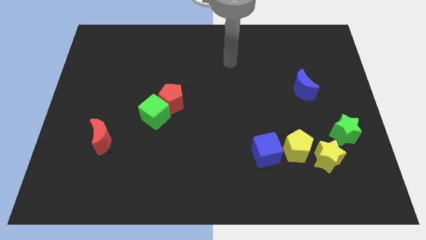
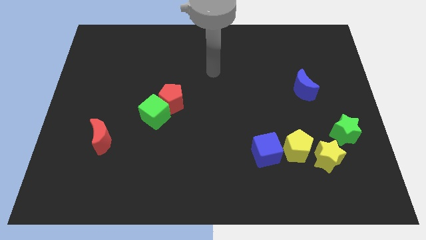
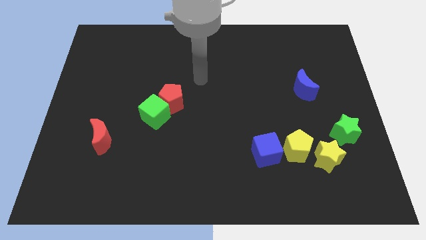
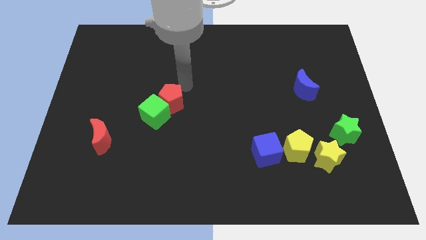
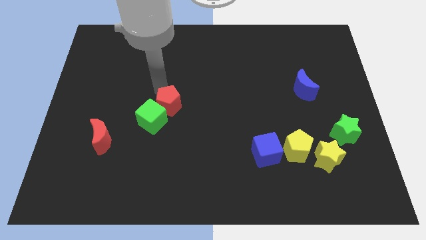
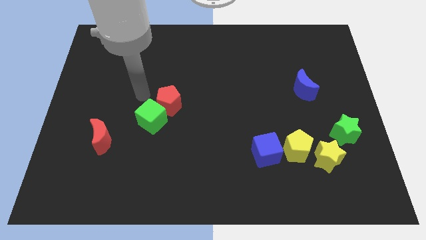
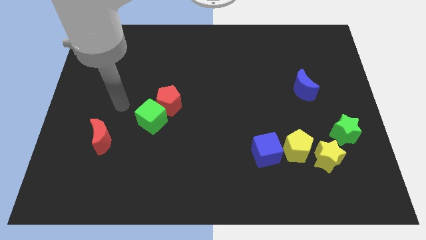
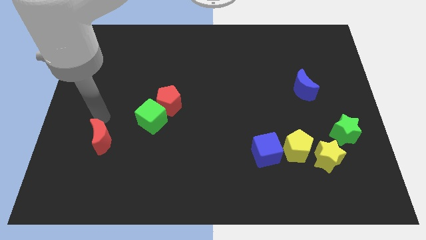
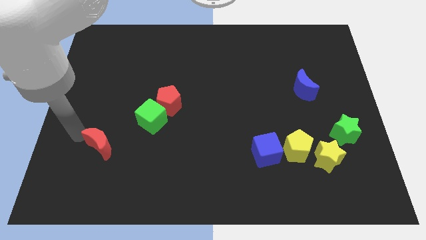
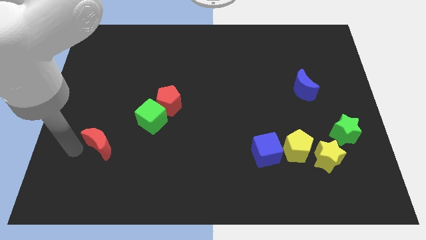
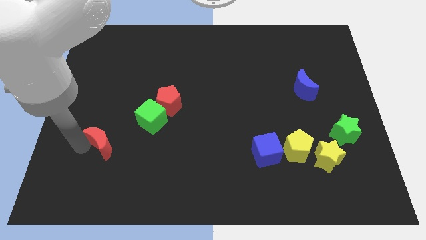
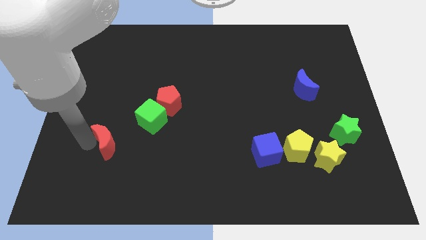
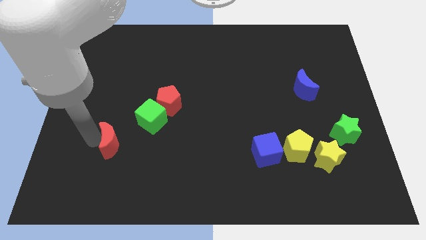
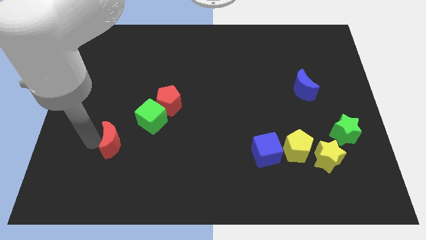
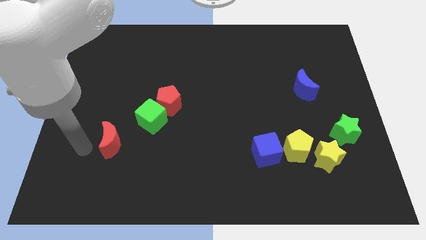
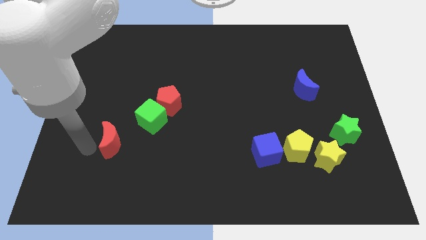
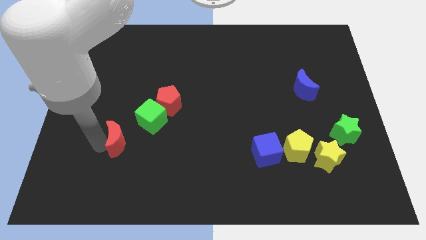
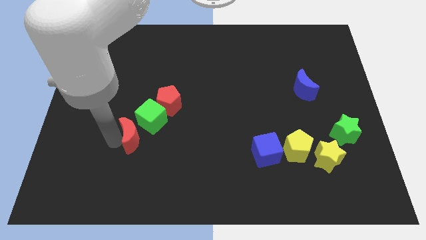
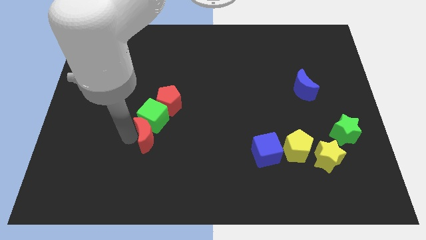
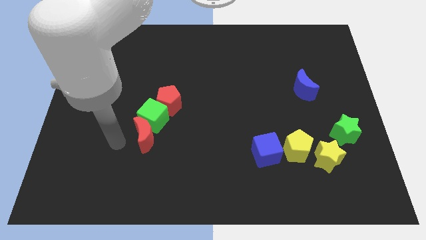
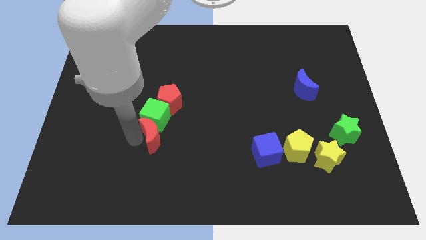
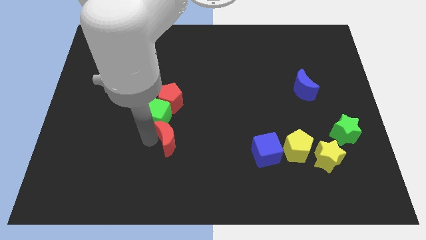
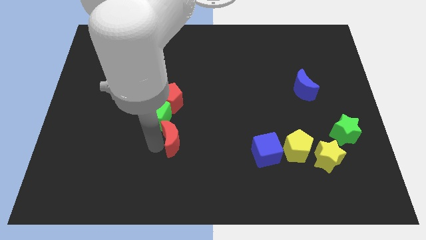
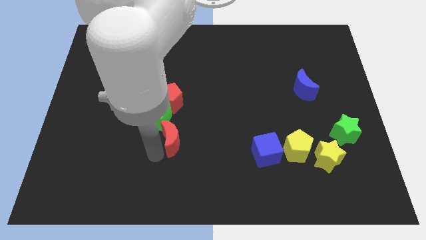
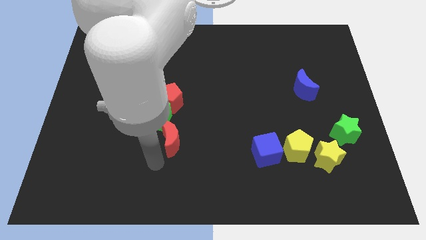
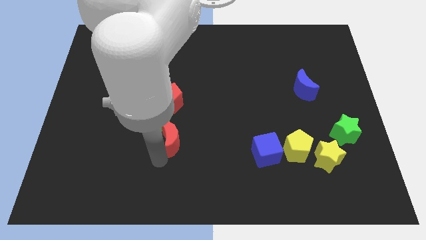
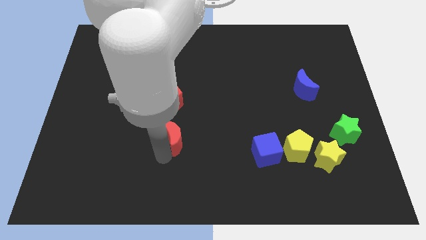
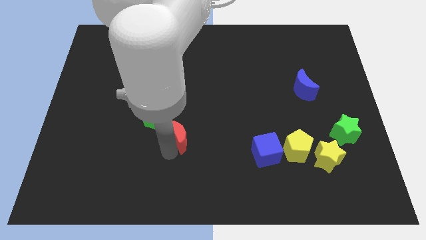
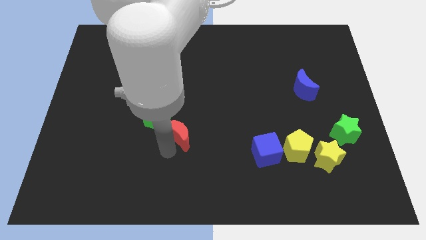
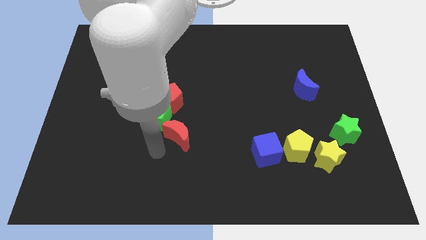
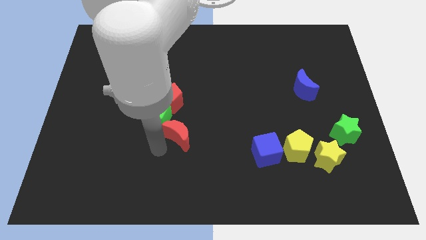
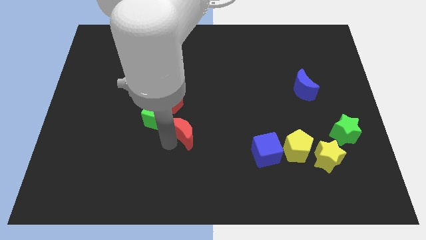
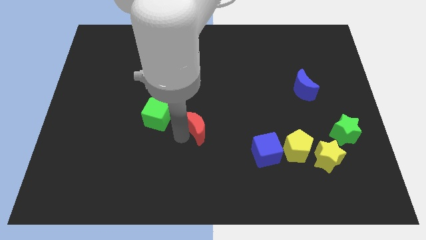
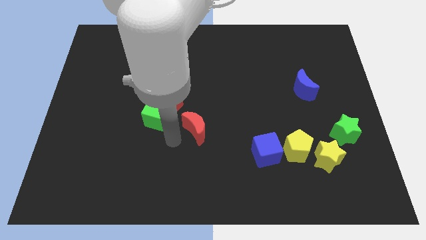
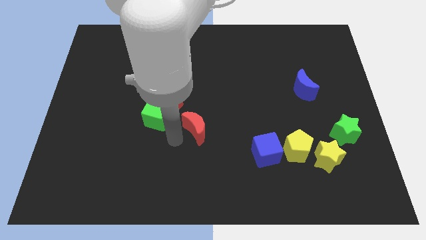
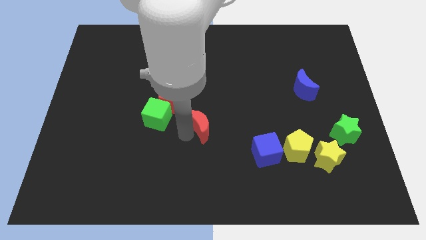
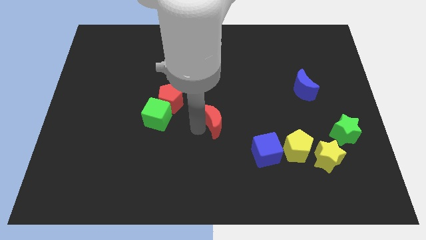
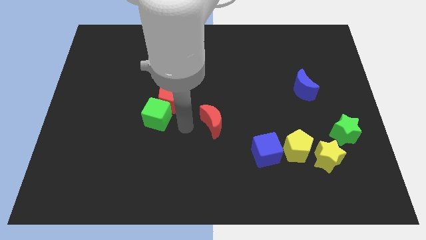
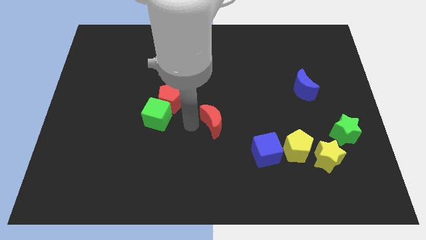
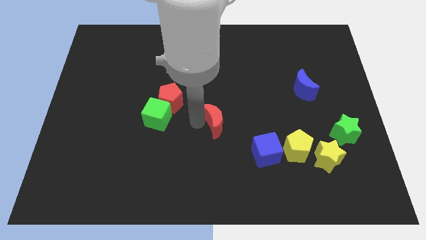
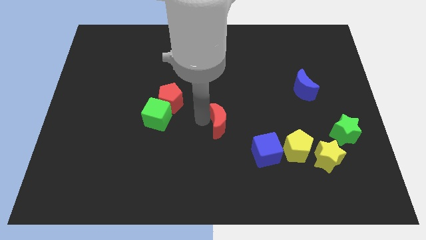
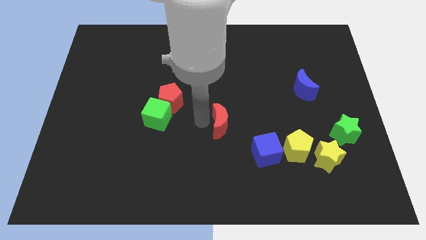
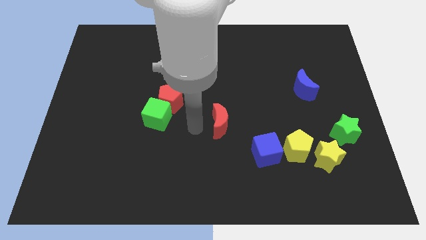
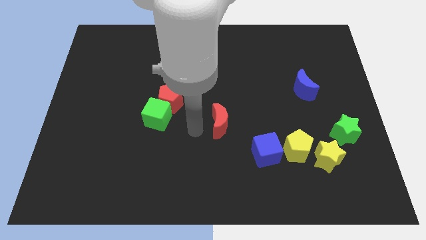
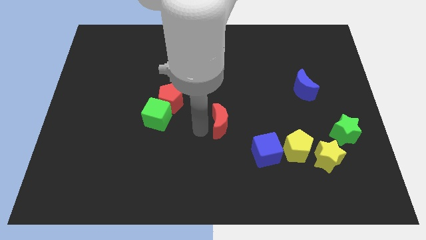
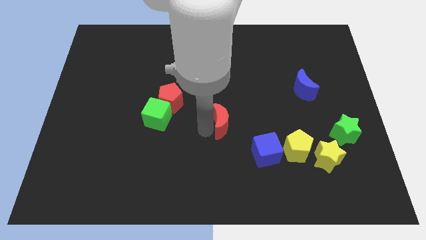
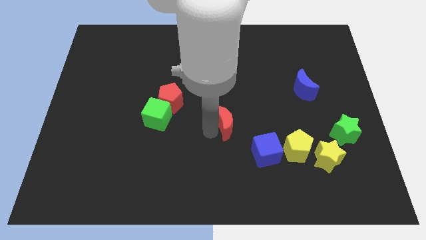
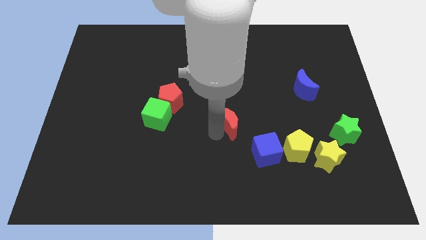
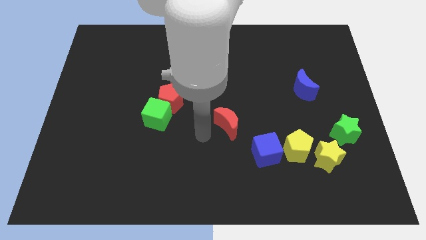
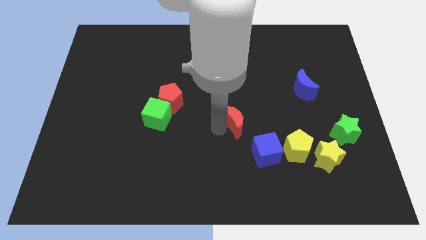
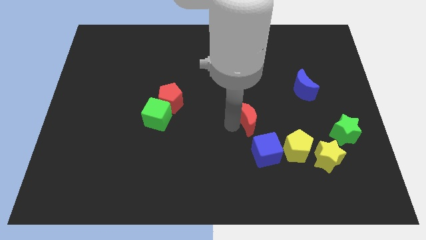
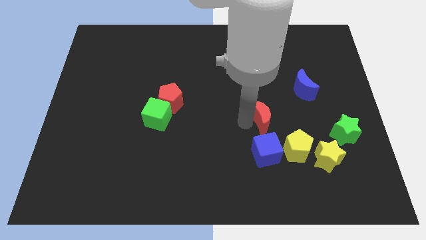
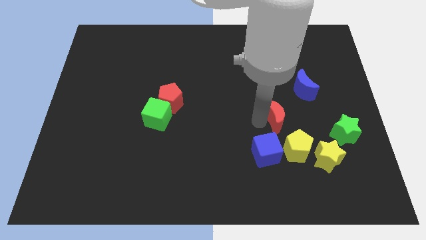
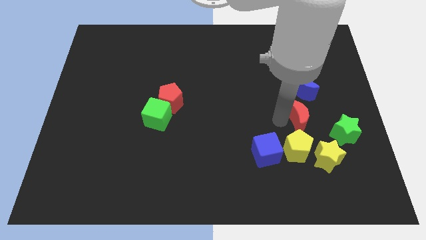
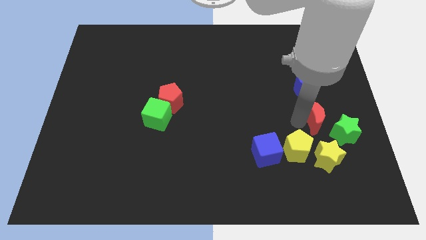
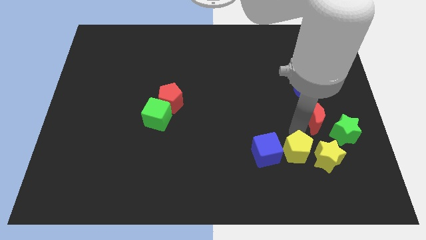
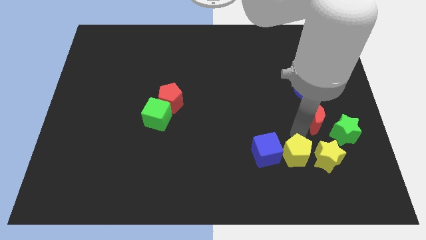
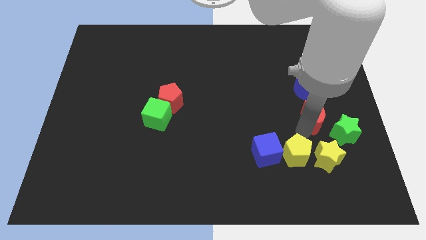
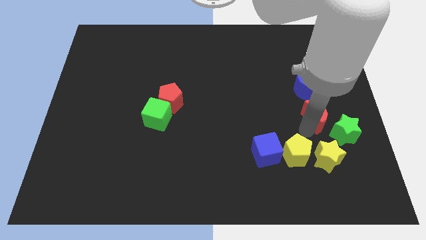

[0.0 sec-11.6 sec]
push the red moon to the bottom right of the blue moon

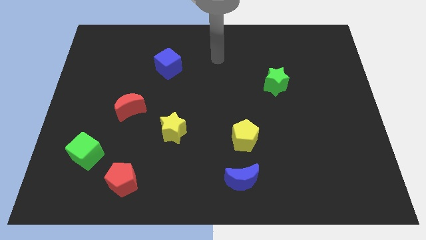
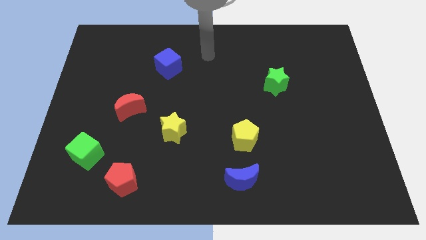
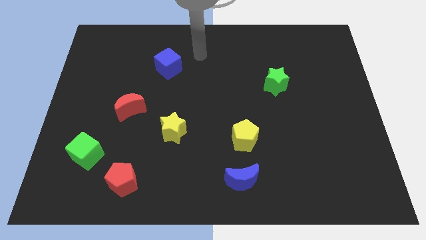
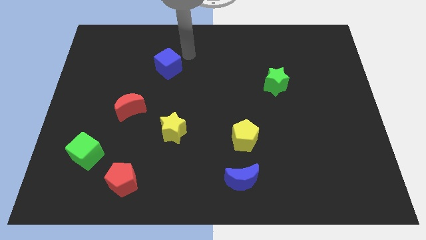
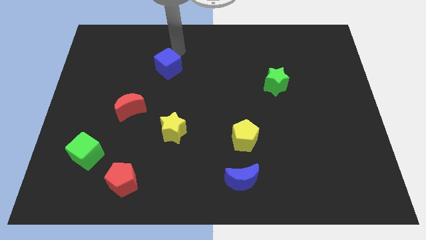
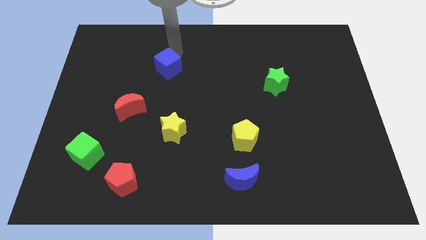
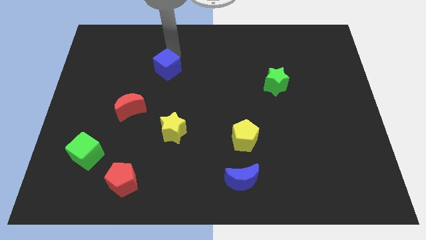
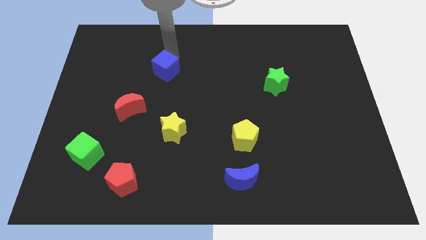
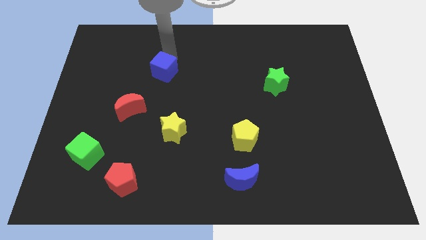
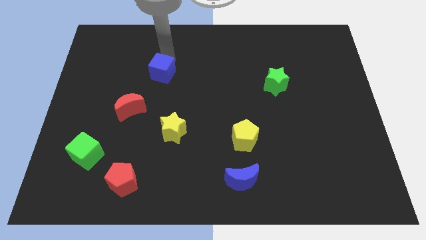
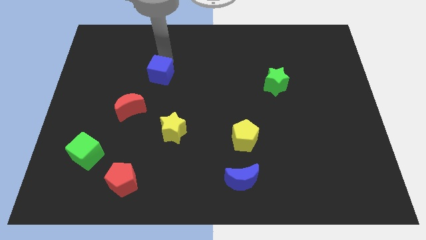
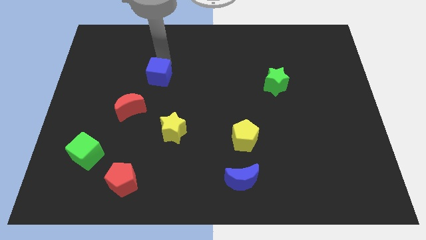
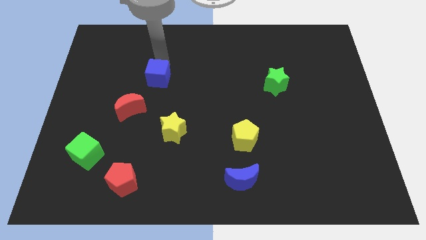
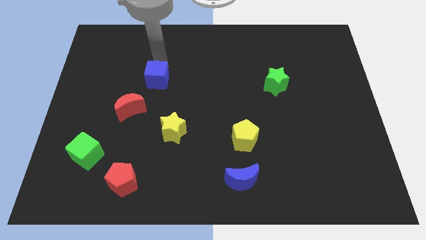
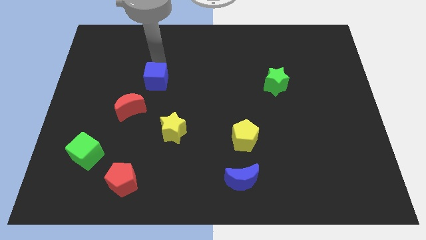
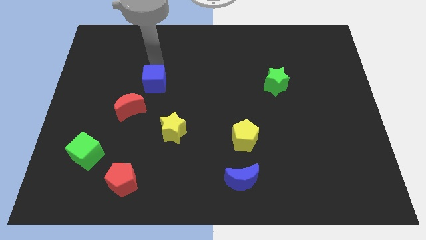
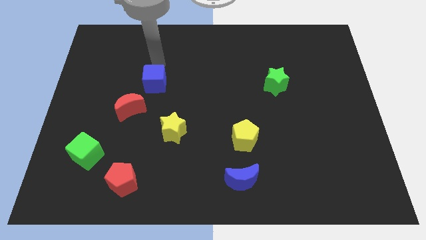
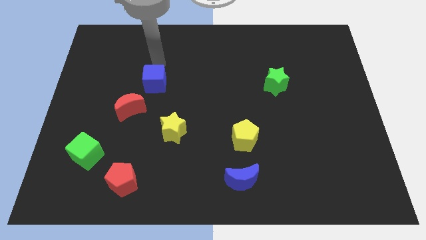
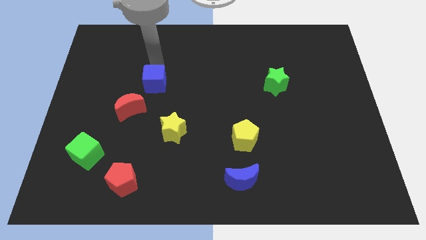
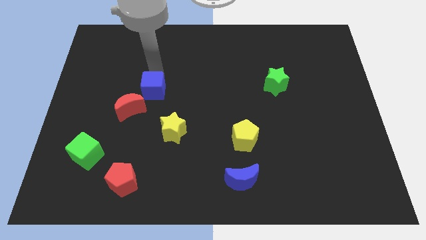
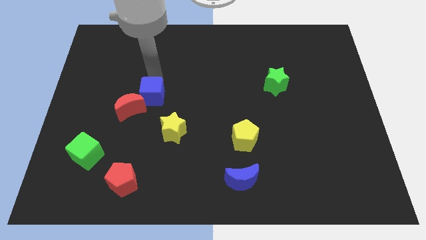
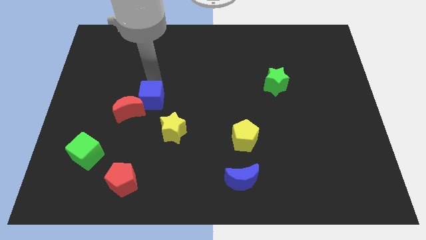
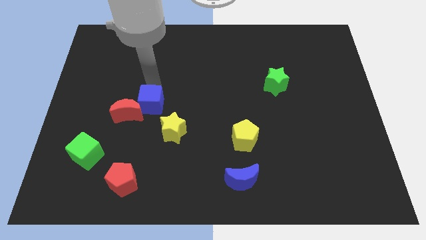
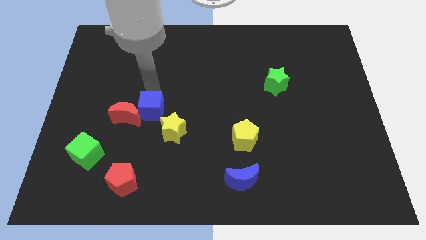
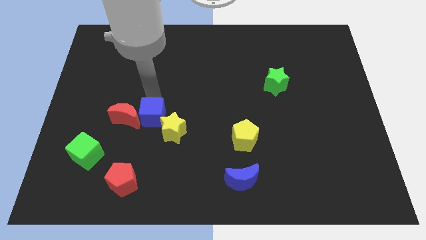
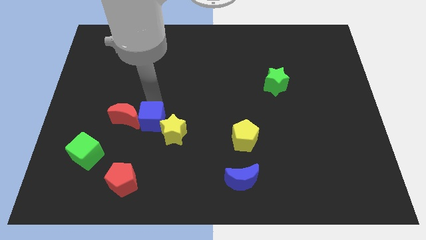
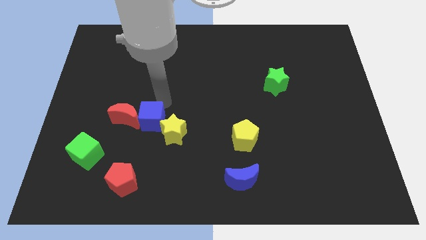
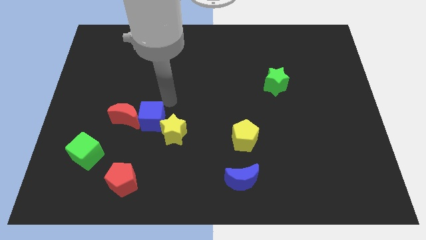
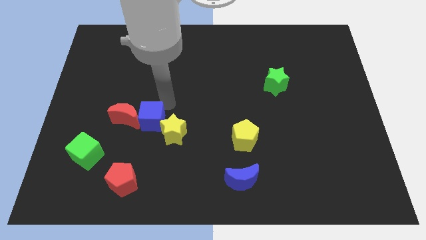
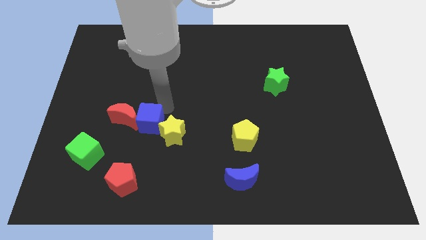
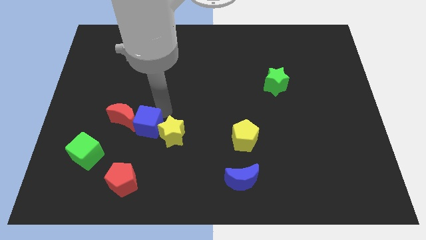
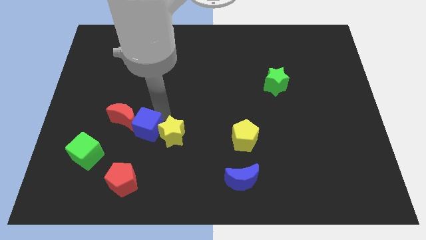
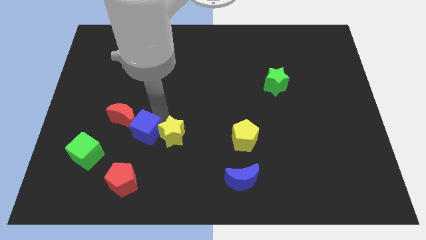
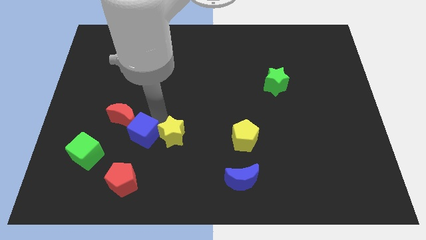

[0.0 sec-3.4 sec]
put the blue cube to the bottom side of the red moon
